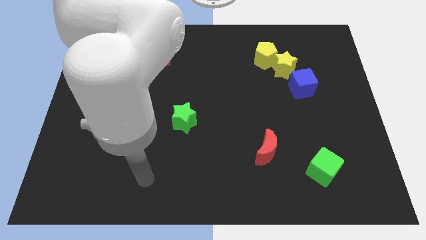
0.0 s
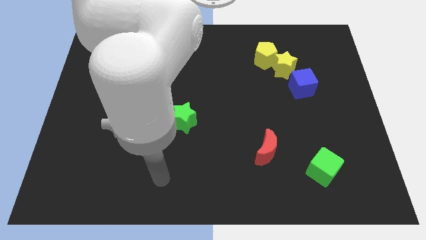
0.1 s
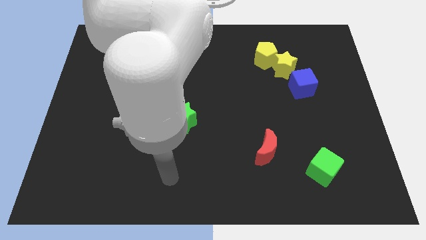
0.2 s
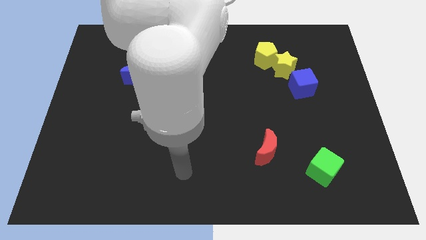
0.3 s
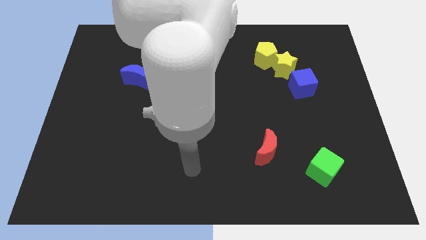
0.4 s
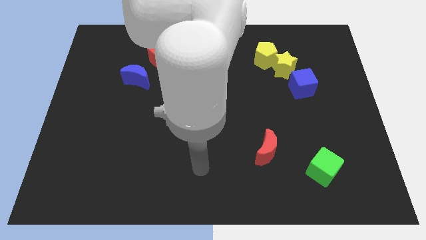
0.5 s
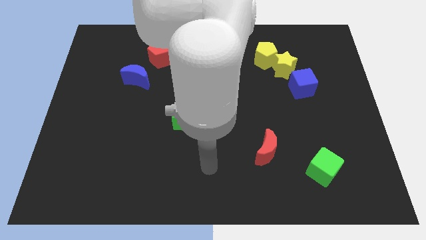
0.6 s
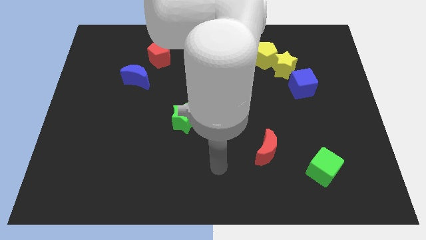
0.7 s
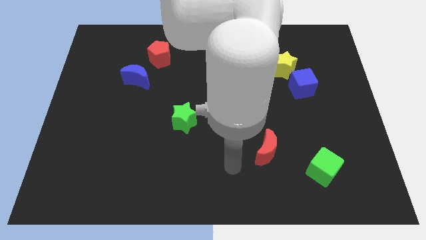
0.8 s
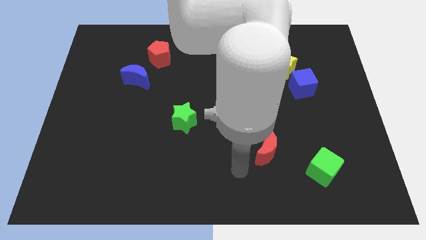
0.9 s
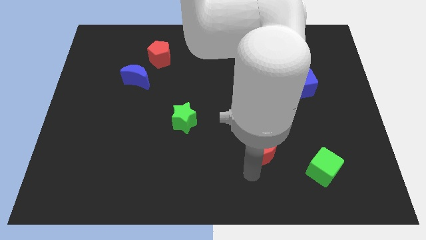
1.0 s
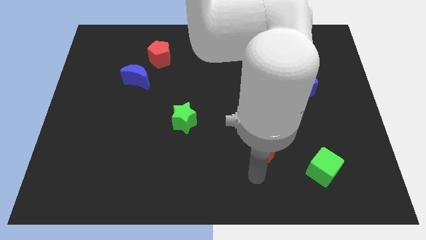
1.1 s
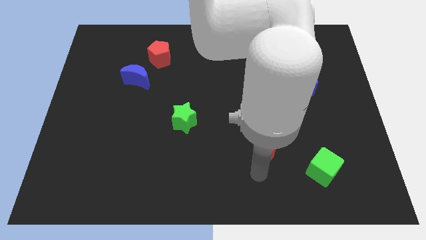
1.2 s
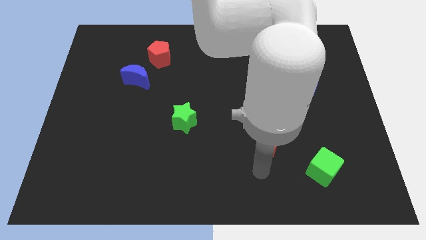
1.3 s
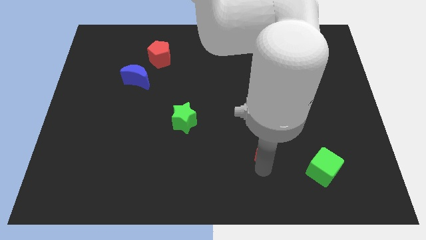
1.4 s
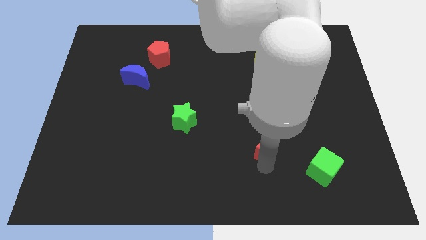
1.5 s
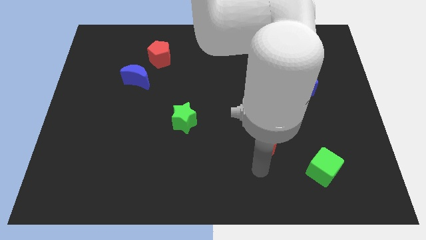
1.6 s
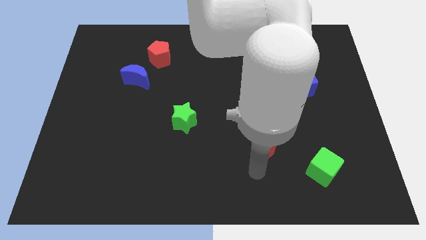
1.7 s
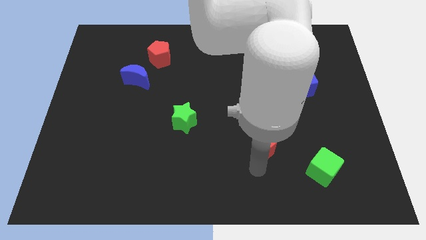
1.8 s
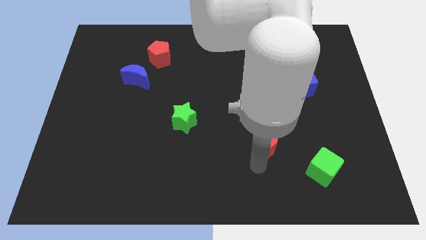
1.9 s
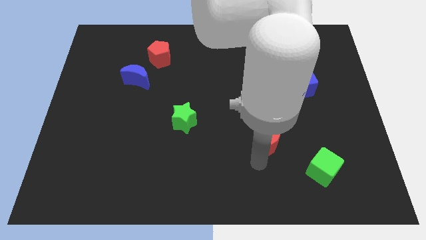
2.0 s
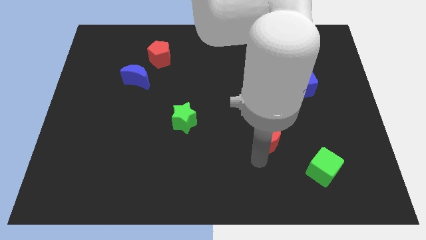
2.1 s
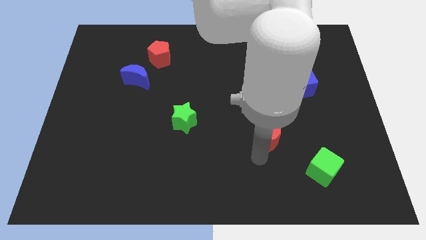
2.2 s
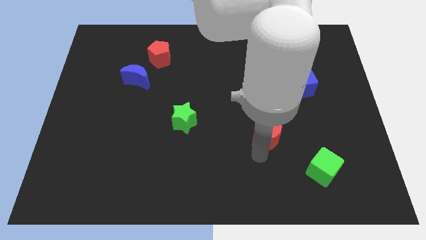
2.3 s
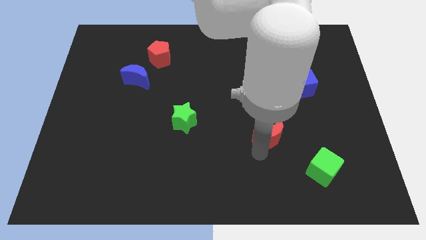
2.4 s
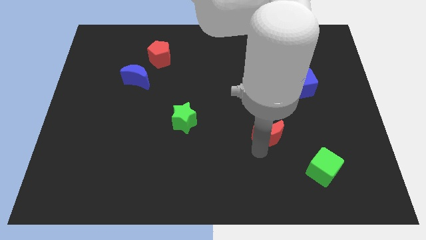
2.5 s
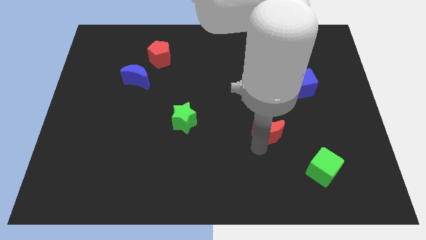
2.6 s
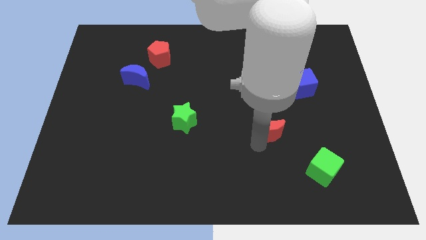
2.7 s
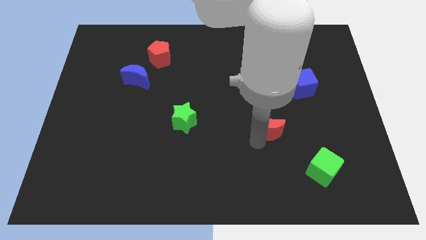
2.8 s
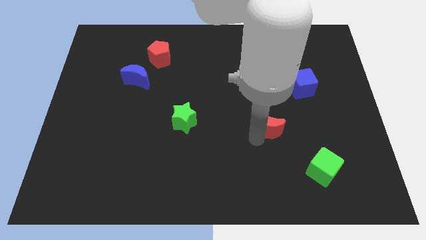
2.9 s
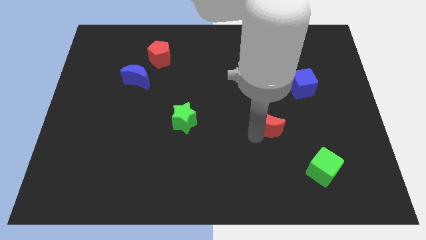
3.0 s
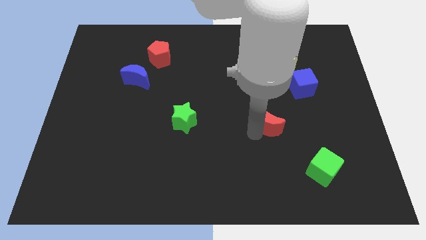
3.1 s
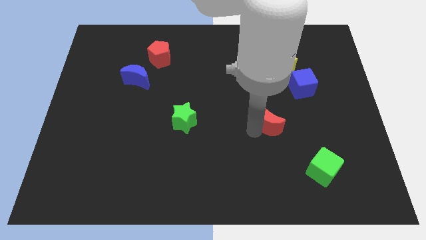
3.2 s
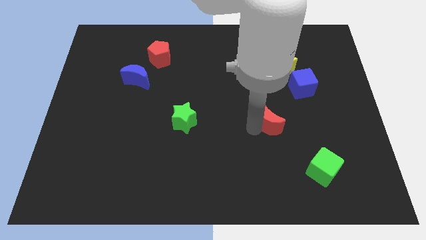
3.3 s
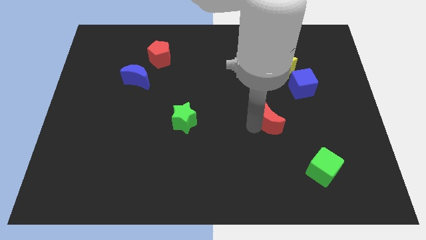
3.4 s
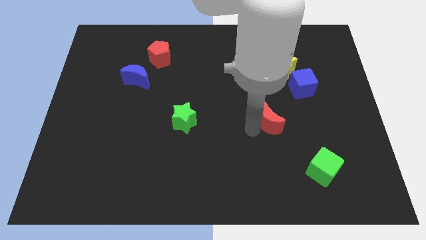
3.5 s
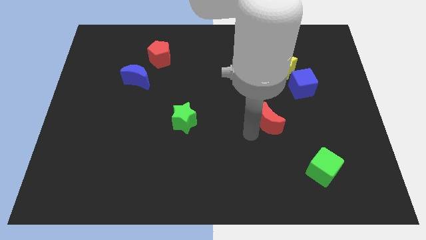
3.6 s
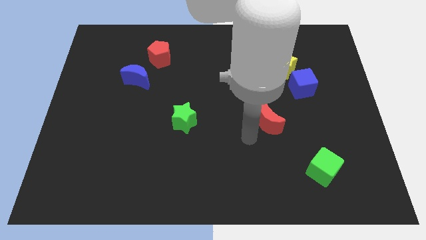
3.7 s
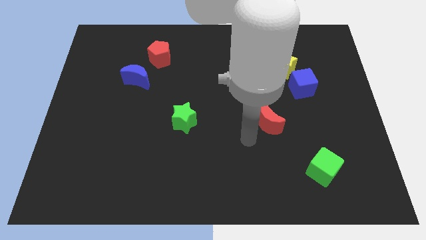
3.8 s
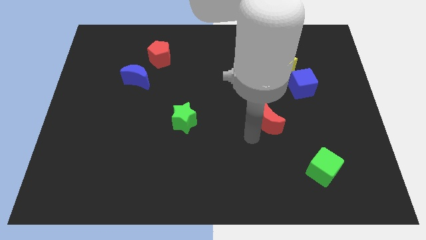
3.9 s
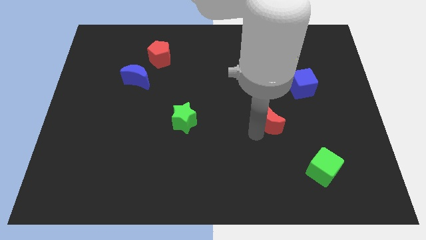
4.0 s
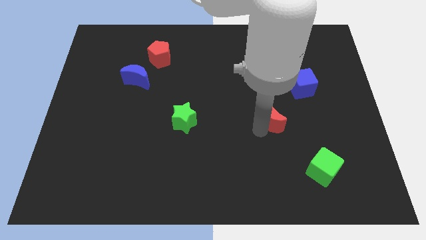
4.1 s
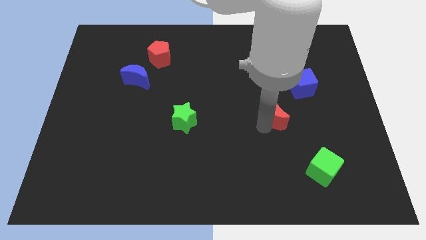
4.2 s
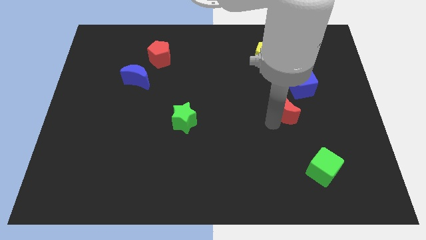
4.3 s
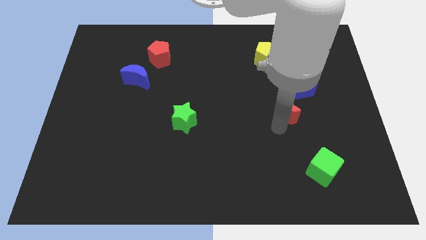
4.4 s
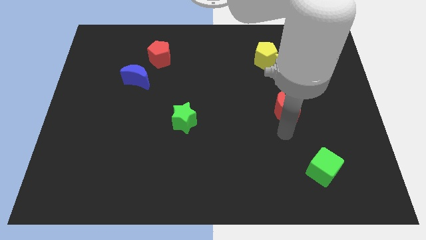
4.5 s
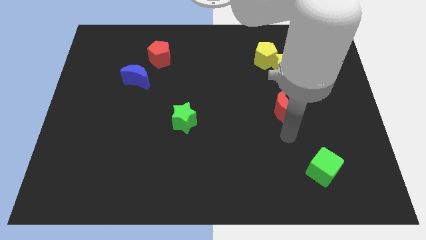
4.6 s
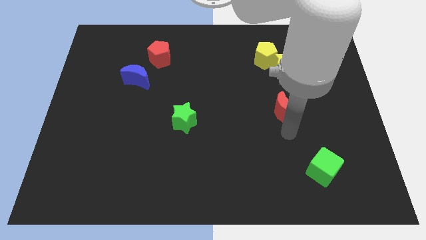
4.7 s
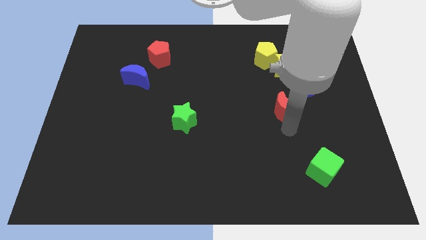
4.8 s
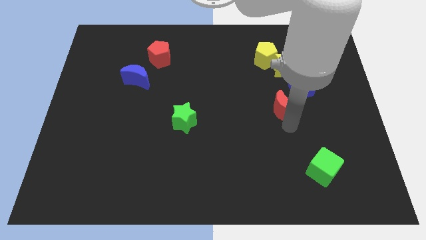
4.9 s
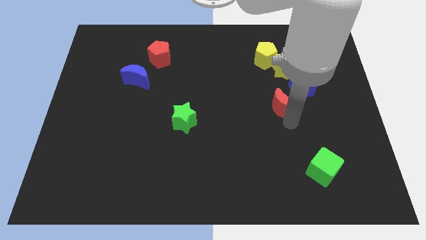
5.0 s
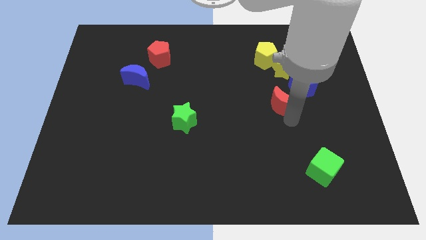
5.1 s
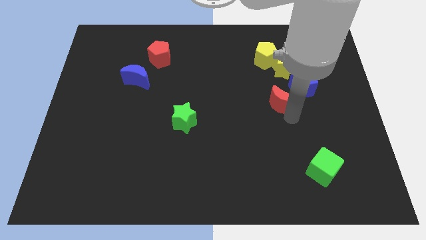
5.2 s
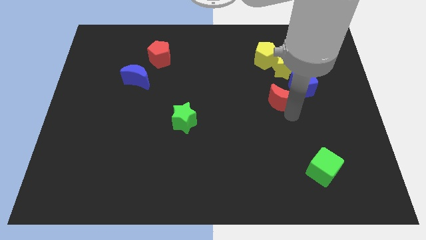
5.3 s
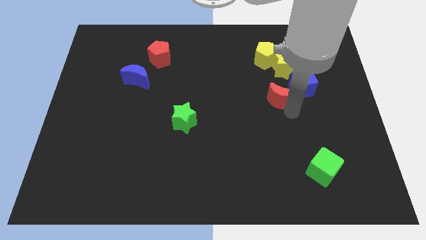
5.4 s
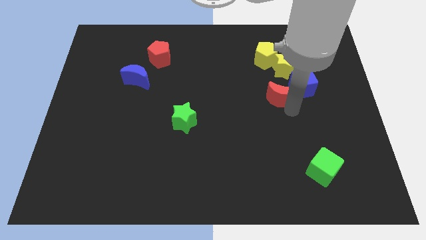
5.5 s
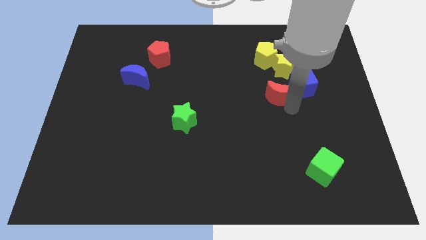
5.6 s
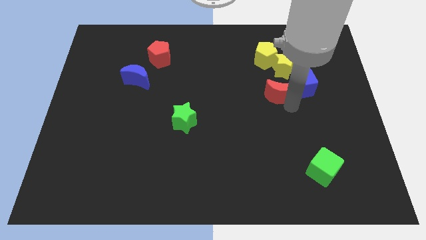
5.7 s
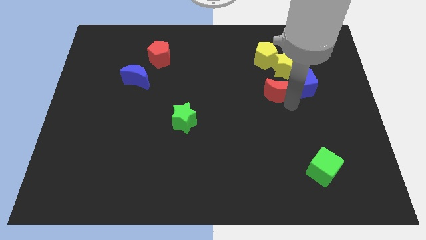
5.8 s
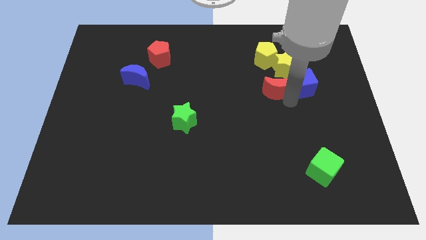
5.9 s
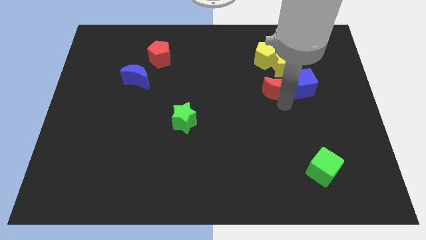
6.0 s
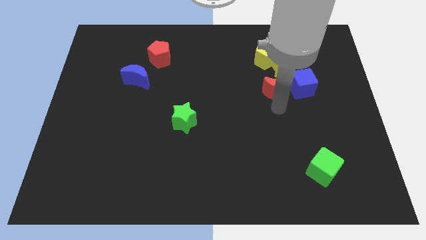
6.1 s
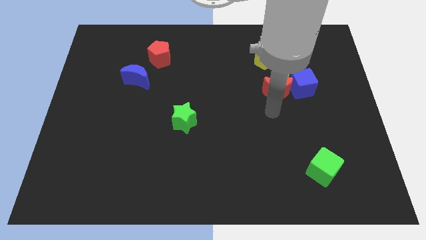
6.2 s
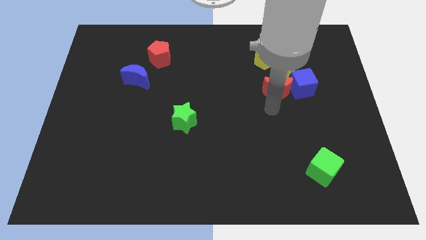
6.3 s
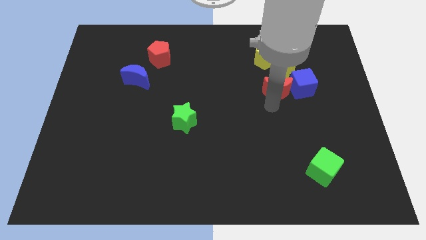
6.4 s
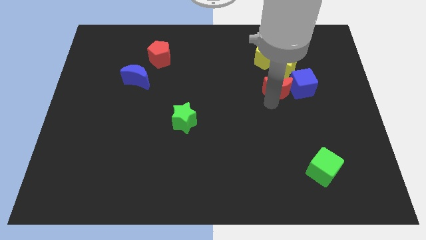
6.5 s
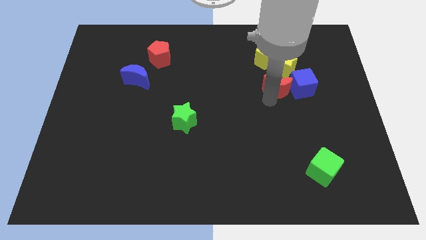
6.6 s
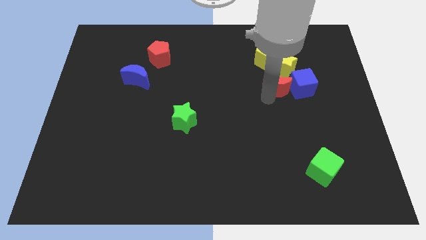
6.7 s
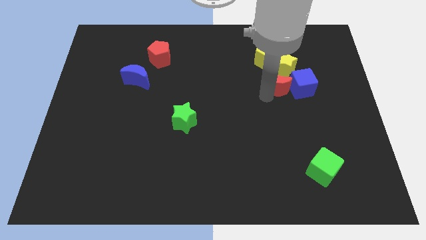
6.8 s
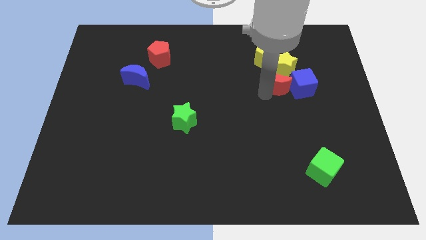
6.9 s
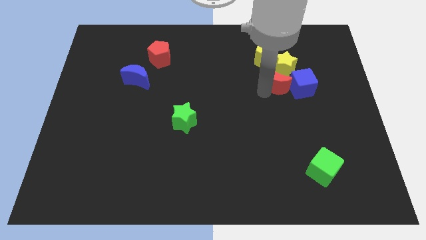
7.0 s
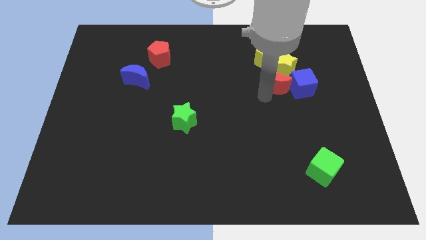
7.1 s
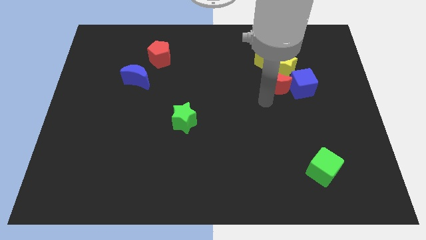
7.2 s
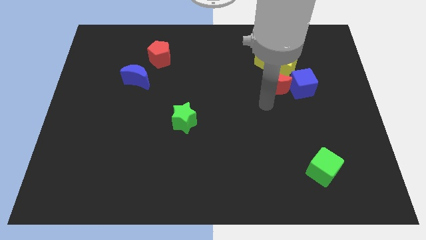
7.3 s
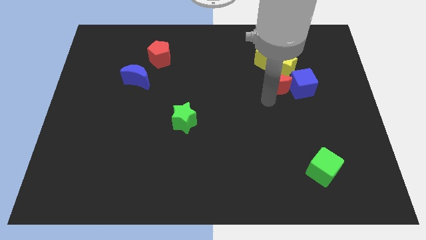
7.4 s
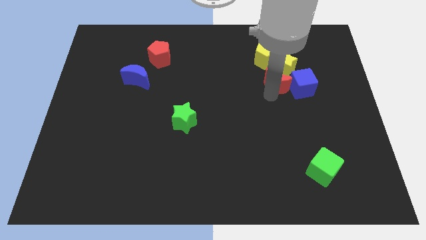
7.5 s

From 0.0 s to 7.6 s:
push the red moon to the yellow star

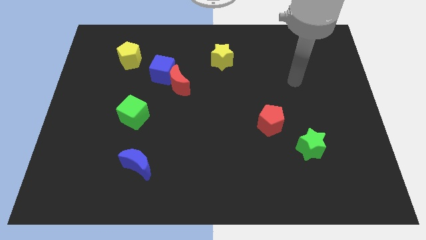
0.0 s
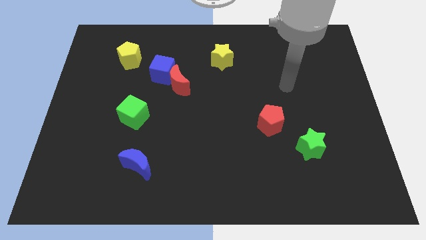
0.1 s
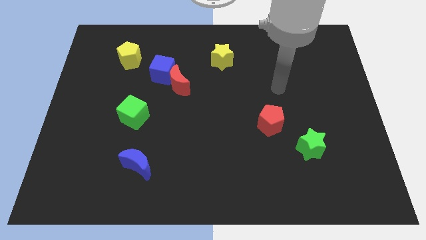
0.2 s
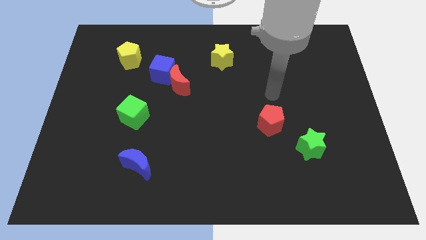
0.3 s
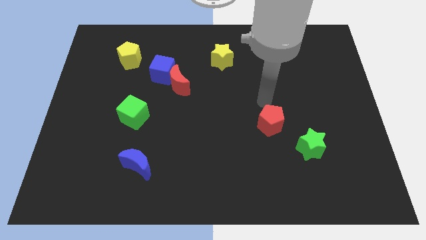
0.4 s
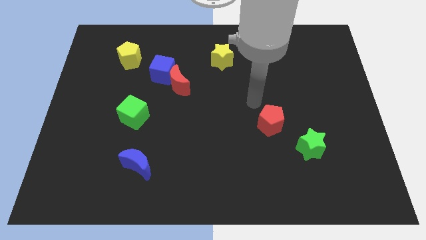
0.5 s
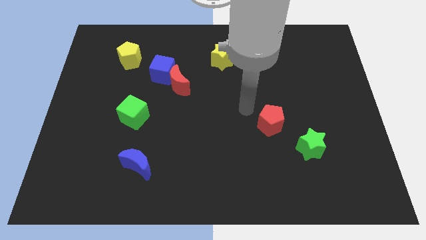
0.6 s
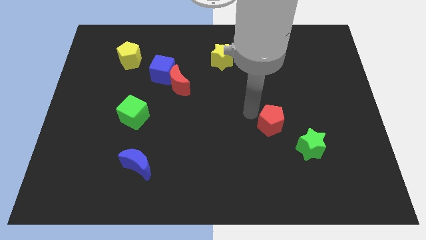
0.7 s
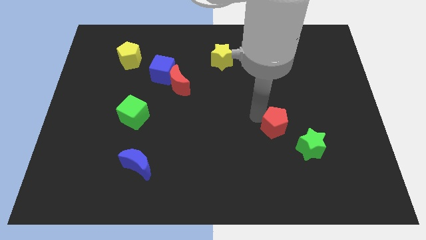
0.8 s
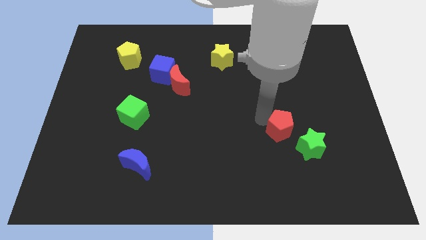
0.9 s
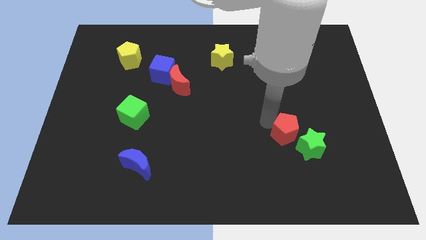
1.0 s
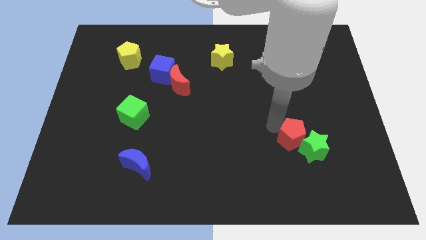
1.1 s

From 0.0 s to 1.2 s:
move the red pentagon next to the green star
